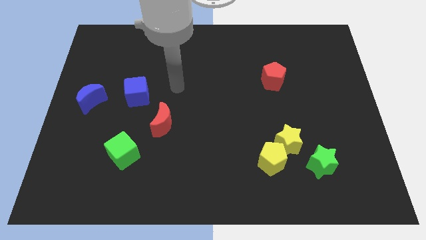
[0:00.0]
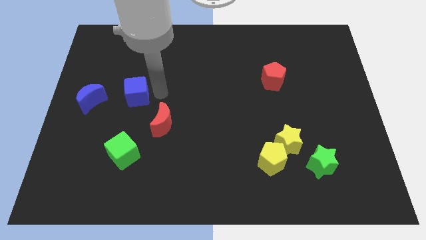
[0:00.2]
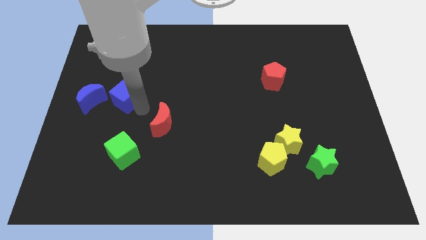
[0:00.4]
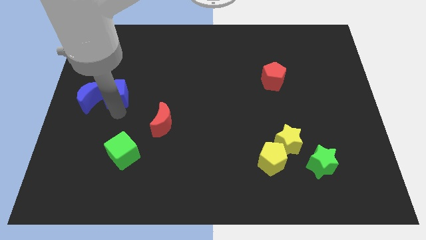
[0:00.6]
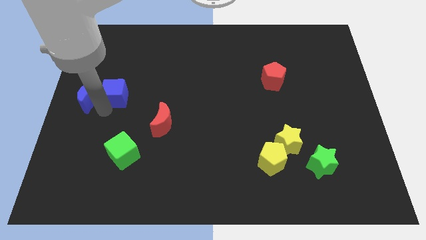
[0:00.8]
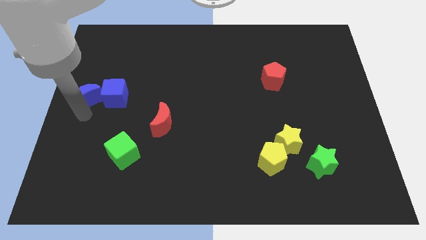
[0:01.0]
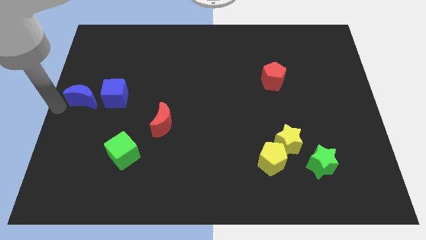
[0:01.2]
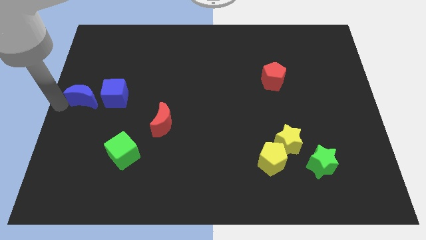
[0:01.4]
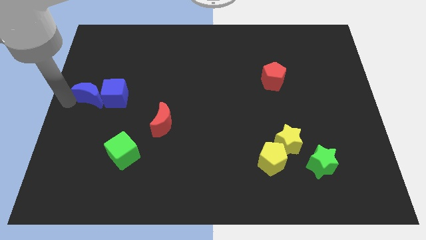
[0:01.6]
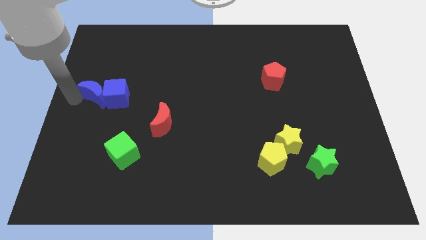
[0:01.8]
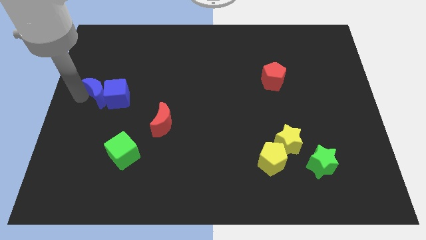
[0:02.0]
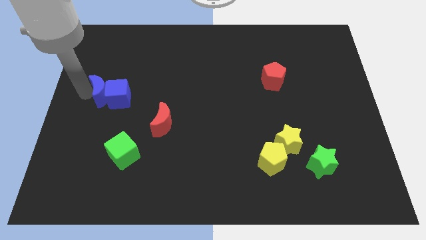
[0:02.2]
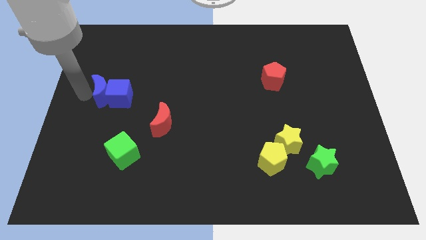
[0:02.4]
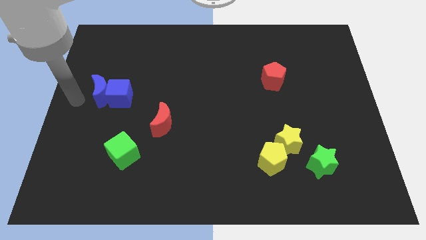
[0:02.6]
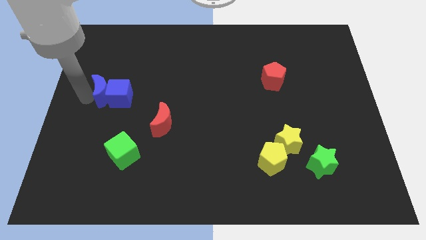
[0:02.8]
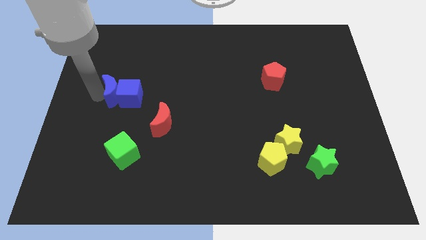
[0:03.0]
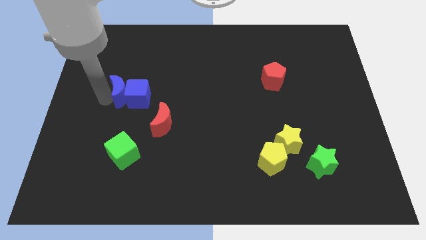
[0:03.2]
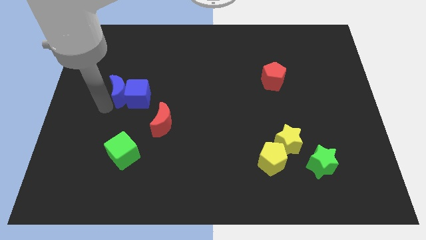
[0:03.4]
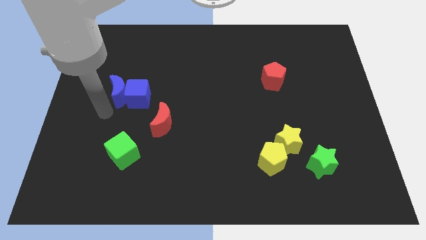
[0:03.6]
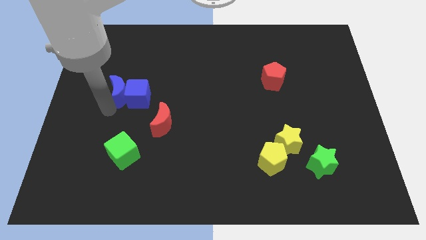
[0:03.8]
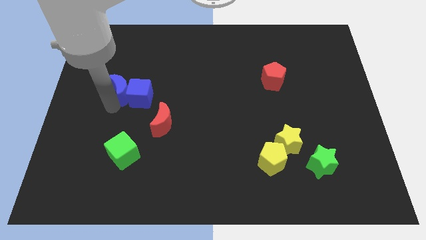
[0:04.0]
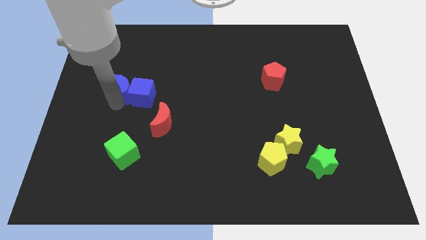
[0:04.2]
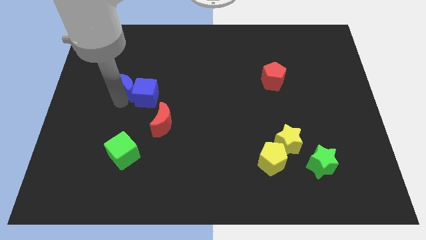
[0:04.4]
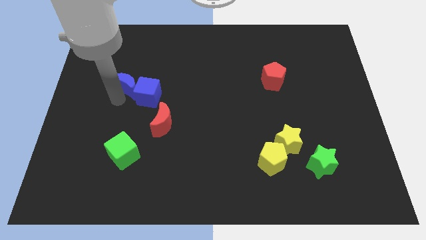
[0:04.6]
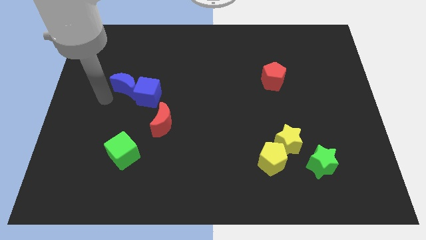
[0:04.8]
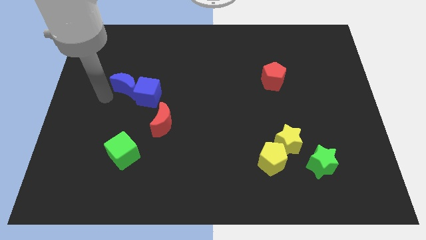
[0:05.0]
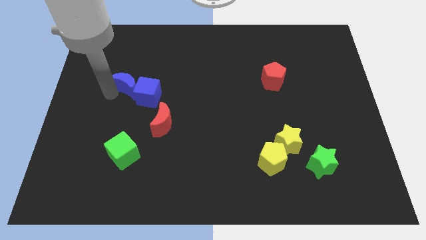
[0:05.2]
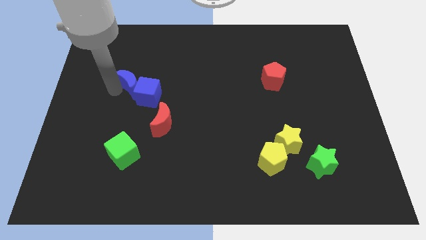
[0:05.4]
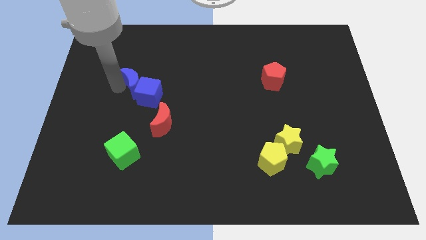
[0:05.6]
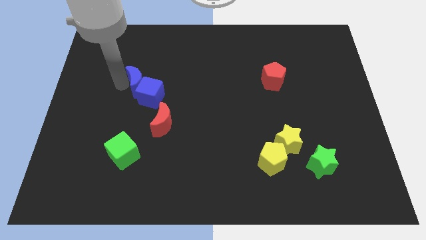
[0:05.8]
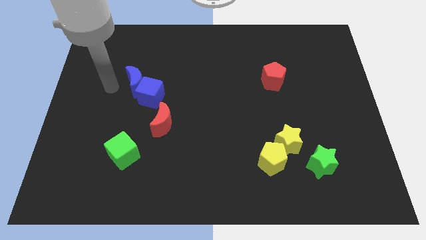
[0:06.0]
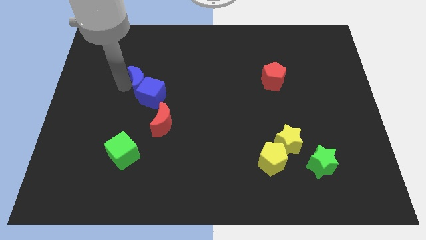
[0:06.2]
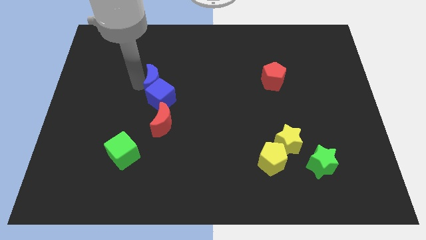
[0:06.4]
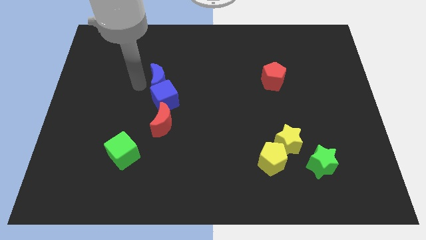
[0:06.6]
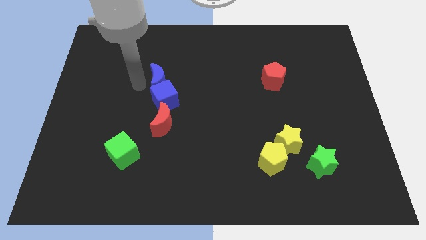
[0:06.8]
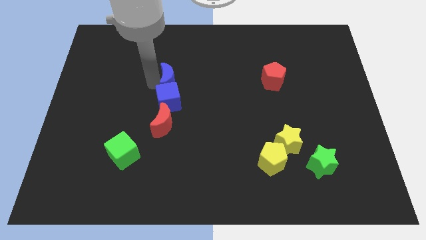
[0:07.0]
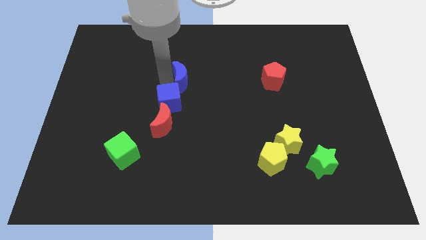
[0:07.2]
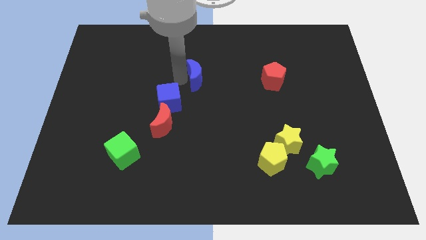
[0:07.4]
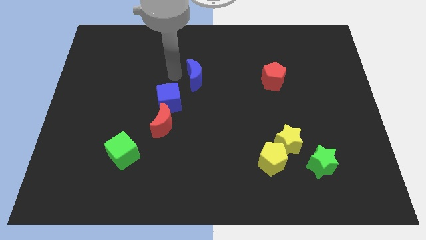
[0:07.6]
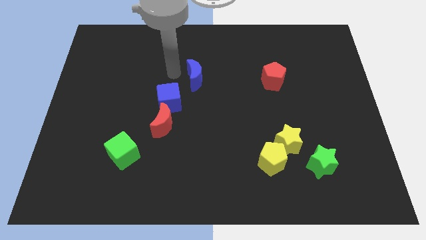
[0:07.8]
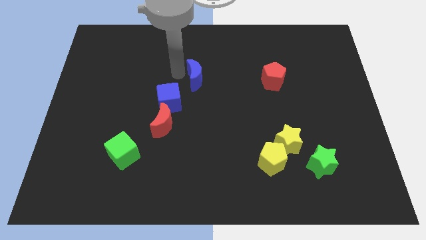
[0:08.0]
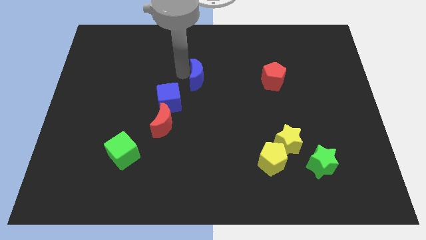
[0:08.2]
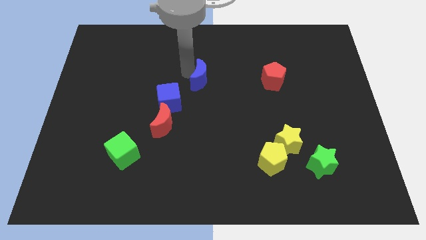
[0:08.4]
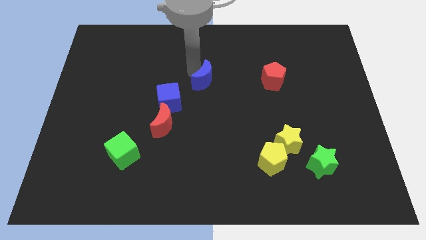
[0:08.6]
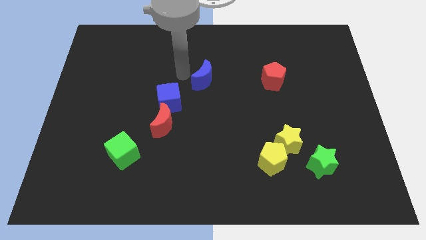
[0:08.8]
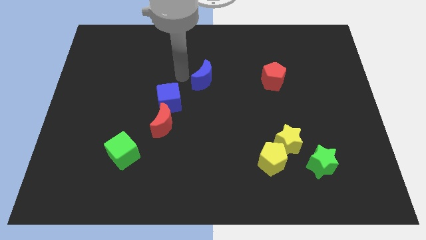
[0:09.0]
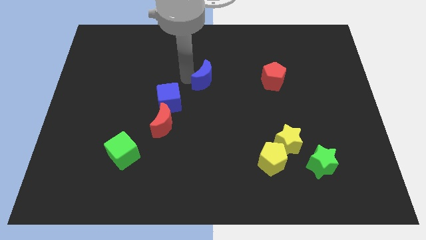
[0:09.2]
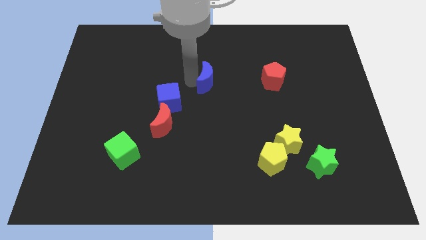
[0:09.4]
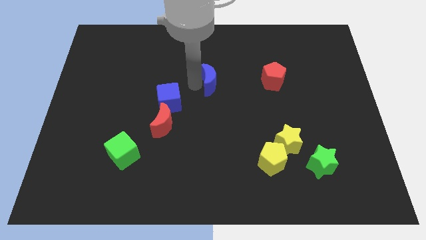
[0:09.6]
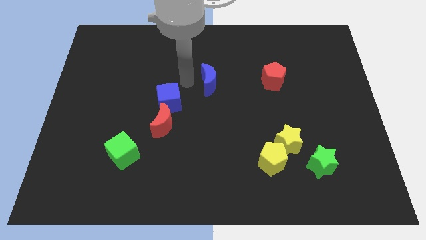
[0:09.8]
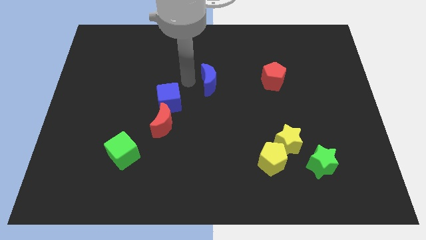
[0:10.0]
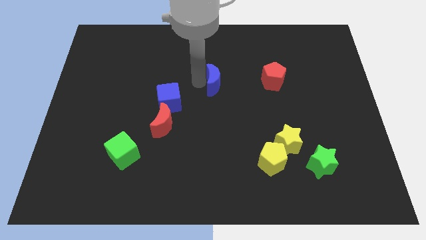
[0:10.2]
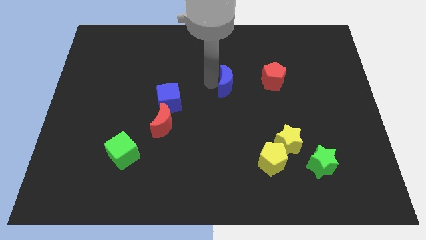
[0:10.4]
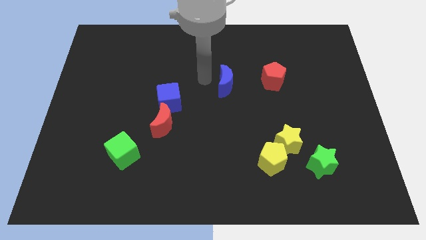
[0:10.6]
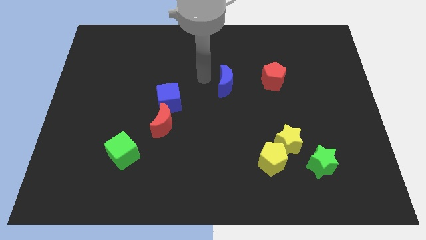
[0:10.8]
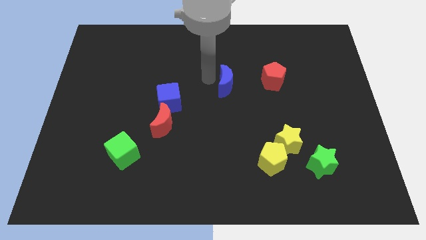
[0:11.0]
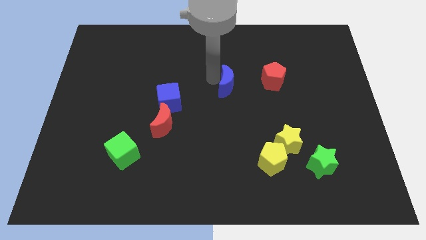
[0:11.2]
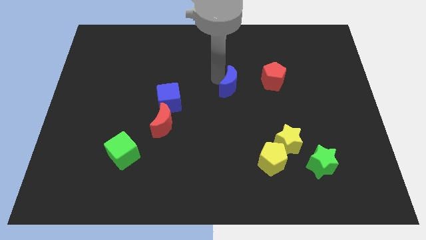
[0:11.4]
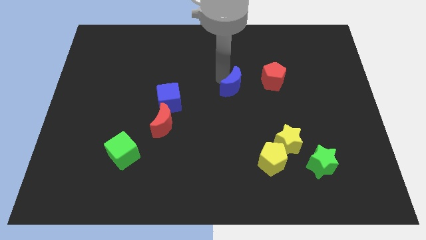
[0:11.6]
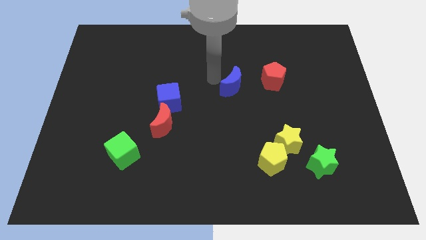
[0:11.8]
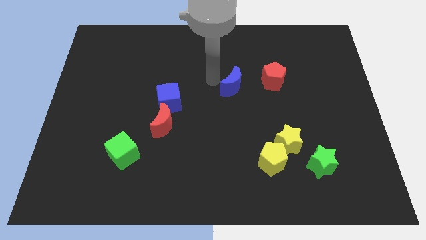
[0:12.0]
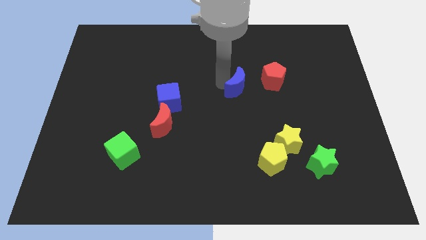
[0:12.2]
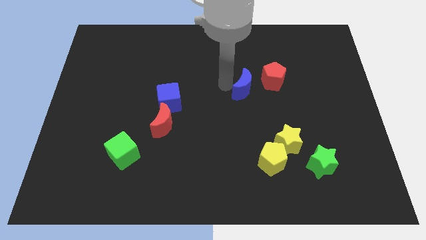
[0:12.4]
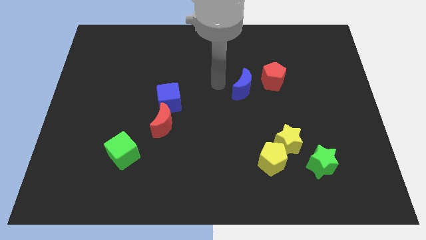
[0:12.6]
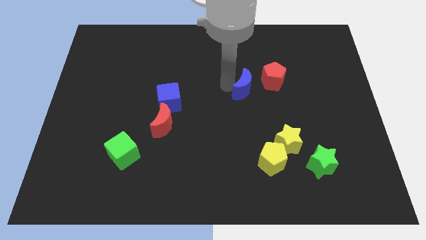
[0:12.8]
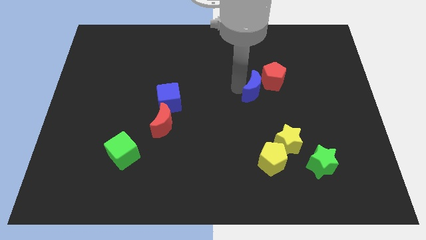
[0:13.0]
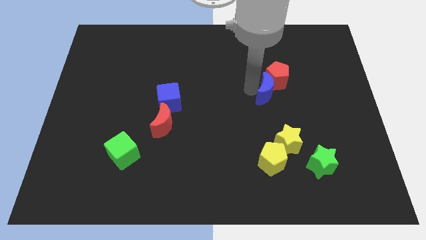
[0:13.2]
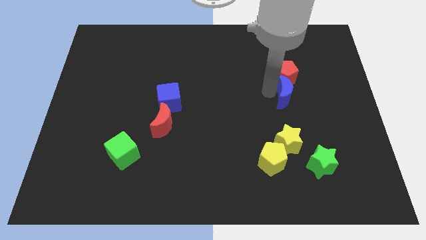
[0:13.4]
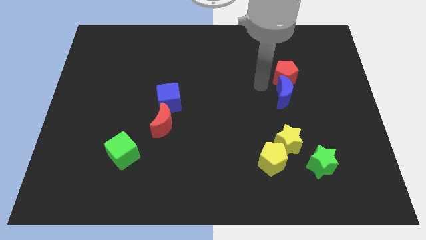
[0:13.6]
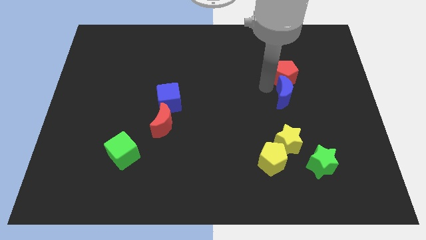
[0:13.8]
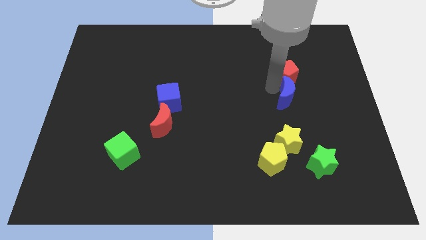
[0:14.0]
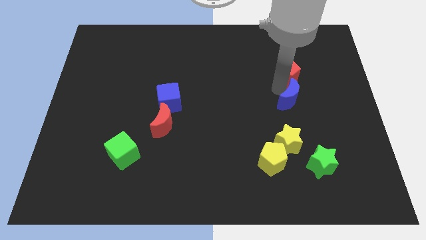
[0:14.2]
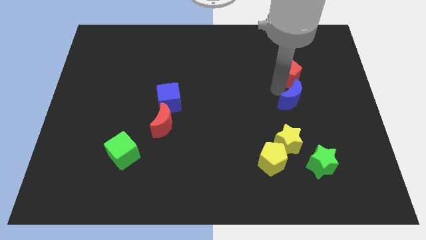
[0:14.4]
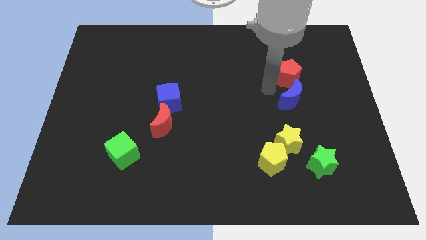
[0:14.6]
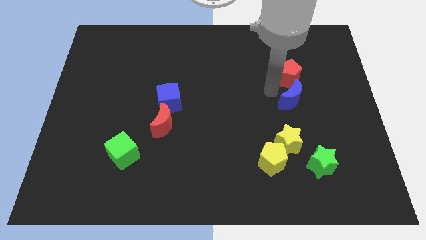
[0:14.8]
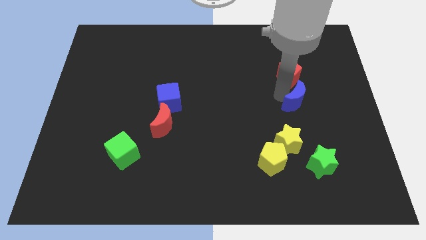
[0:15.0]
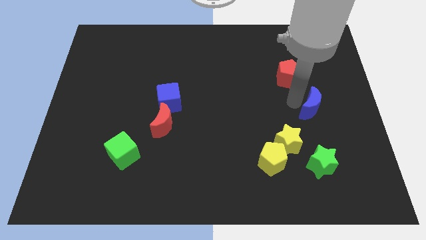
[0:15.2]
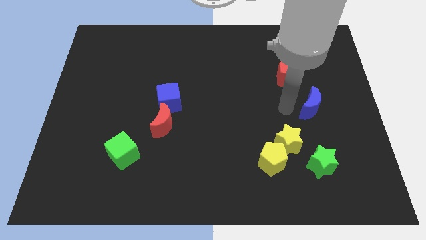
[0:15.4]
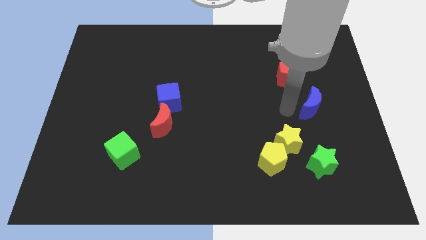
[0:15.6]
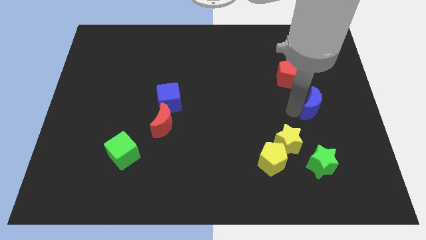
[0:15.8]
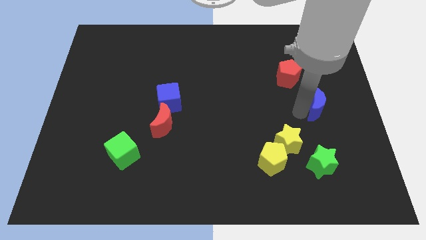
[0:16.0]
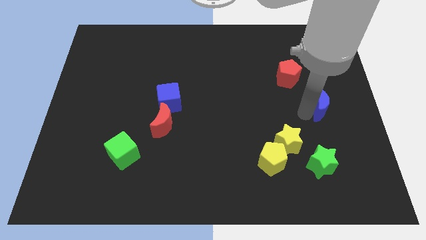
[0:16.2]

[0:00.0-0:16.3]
put the blue moon to the right side of the board
